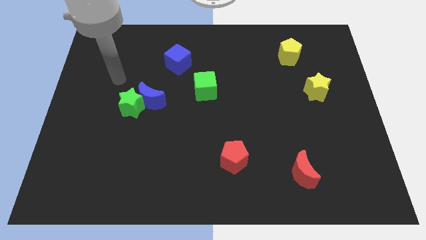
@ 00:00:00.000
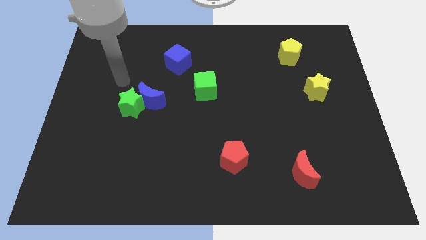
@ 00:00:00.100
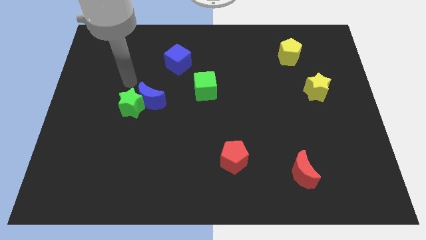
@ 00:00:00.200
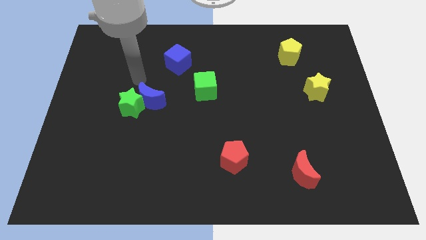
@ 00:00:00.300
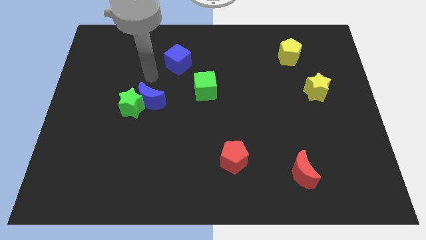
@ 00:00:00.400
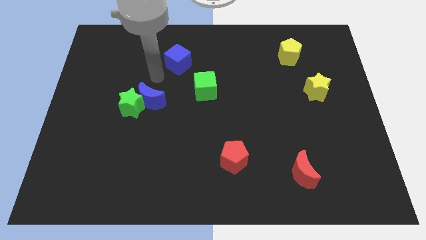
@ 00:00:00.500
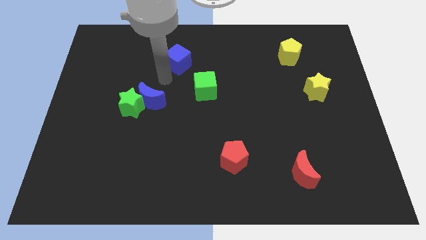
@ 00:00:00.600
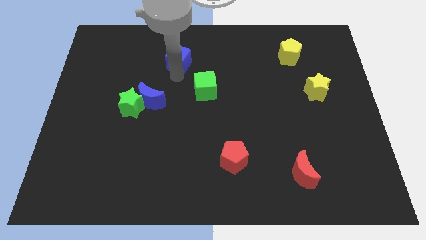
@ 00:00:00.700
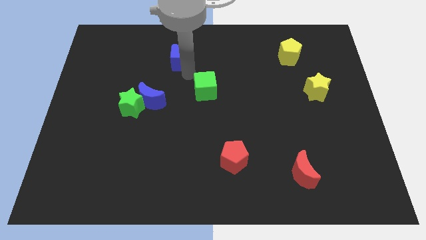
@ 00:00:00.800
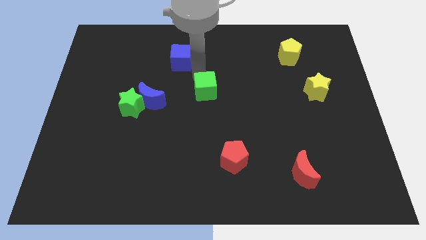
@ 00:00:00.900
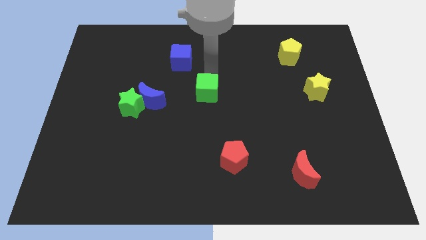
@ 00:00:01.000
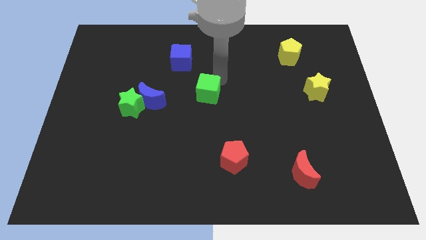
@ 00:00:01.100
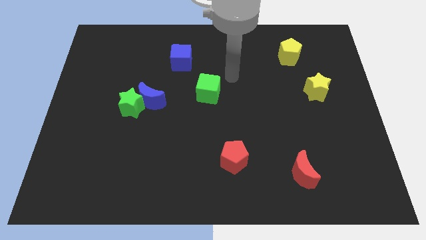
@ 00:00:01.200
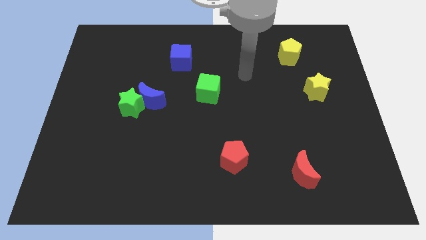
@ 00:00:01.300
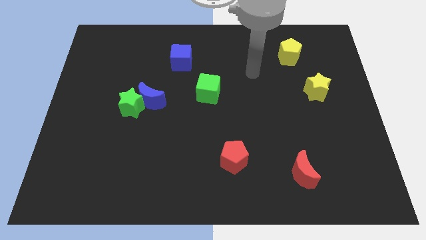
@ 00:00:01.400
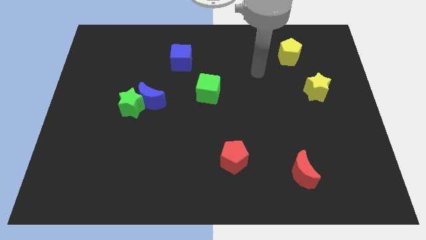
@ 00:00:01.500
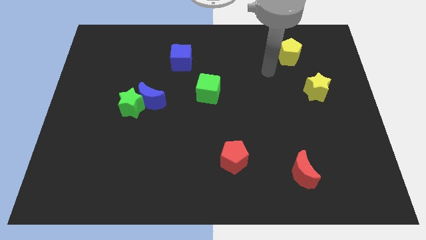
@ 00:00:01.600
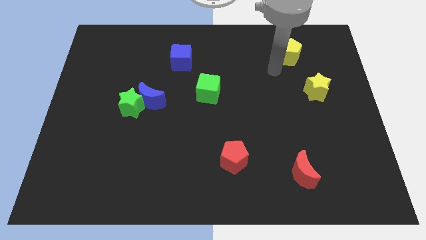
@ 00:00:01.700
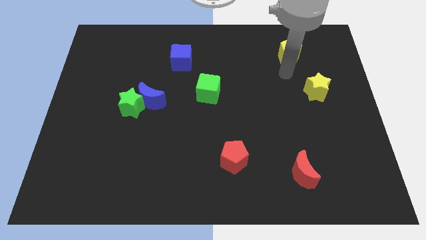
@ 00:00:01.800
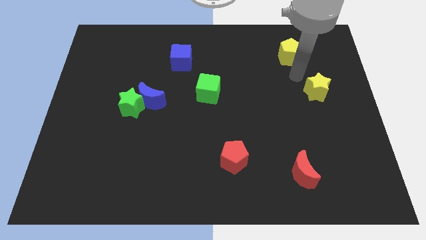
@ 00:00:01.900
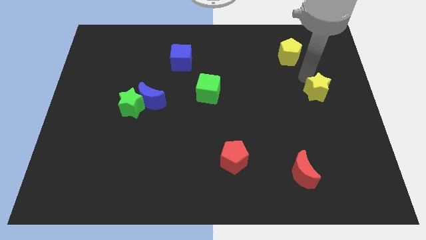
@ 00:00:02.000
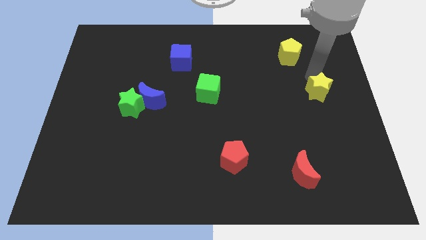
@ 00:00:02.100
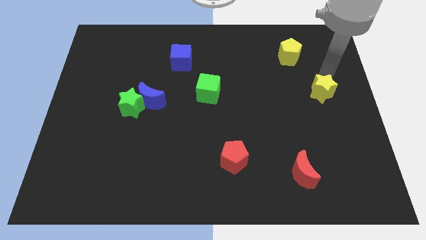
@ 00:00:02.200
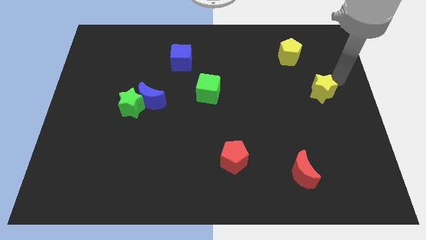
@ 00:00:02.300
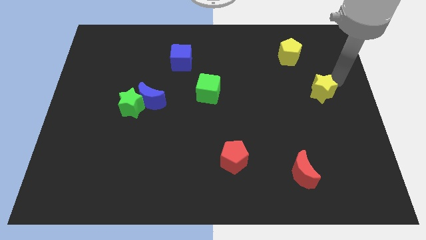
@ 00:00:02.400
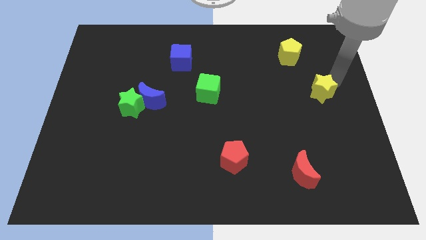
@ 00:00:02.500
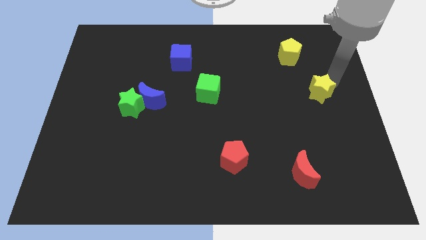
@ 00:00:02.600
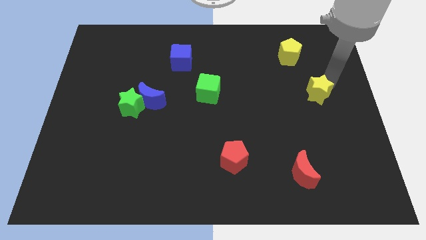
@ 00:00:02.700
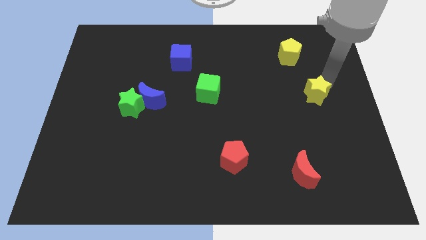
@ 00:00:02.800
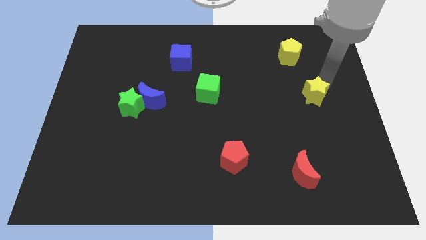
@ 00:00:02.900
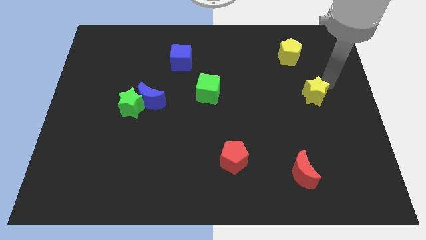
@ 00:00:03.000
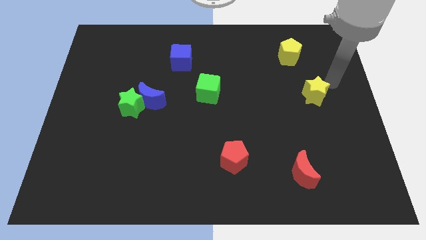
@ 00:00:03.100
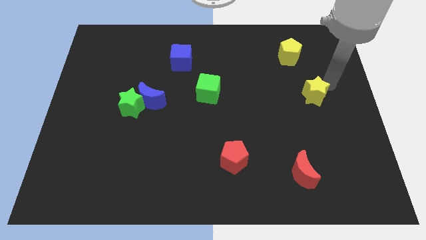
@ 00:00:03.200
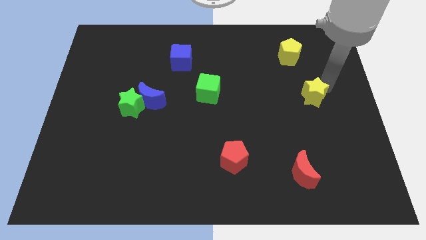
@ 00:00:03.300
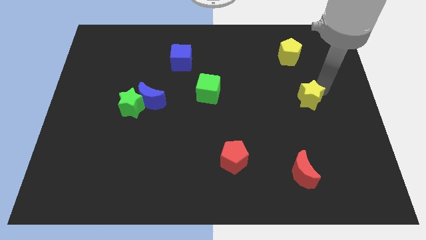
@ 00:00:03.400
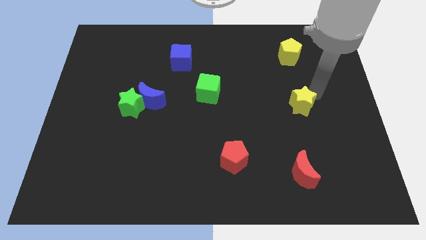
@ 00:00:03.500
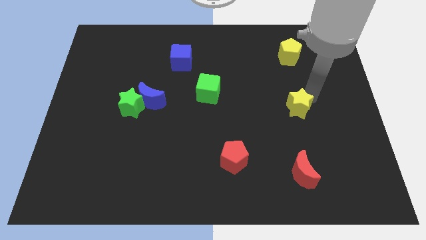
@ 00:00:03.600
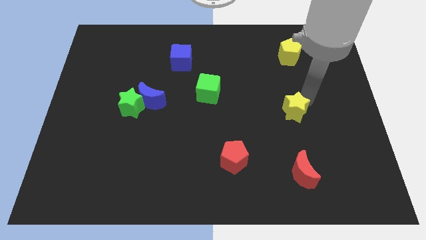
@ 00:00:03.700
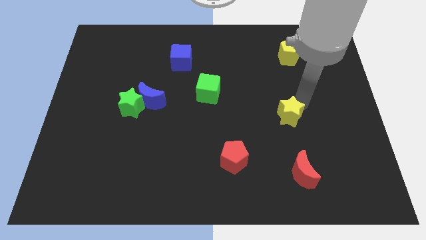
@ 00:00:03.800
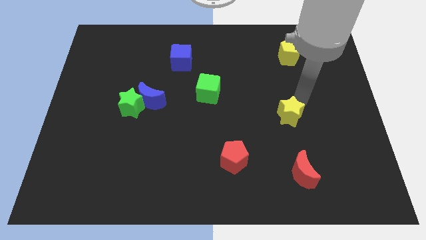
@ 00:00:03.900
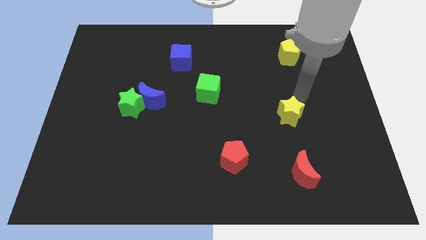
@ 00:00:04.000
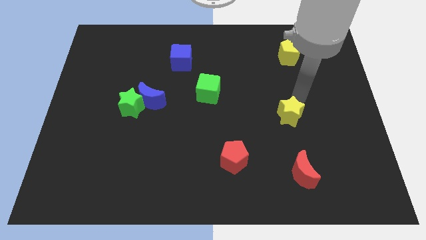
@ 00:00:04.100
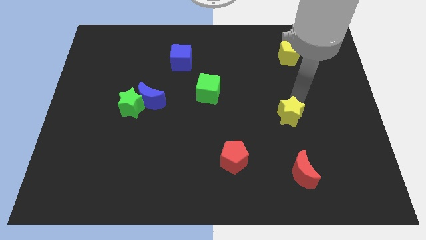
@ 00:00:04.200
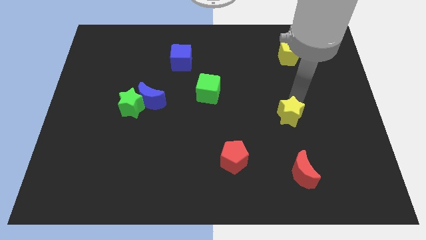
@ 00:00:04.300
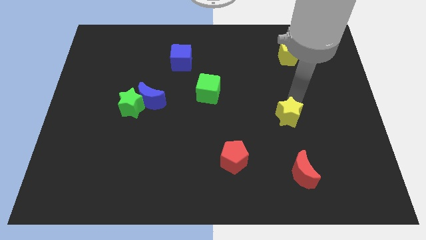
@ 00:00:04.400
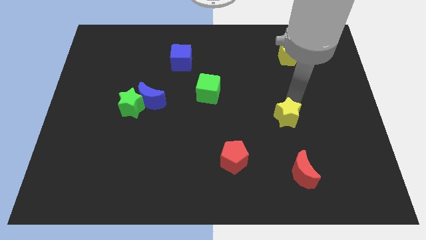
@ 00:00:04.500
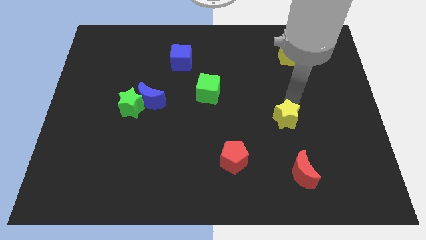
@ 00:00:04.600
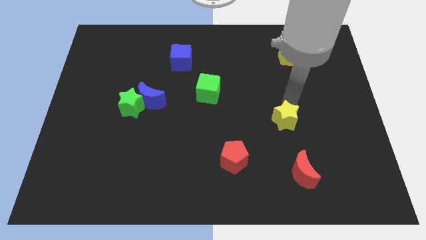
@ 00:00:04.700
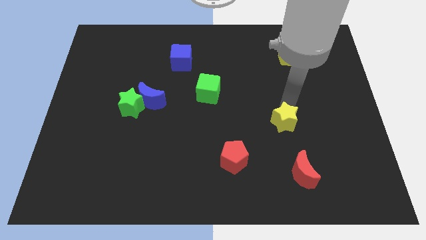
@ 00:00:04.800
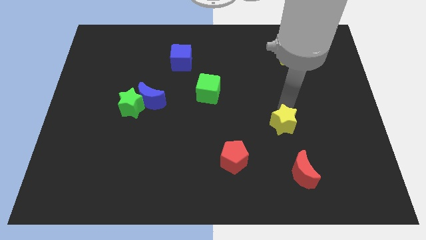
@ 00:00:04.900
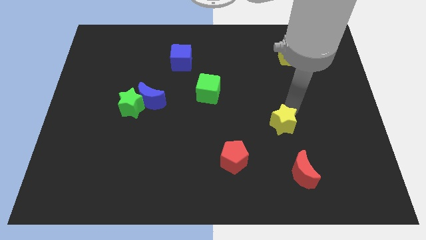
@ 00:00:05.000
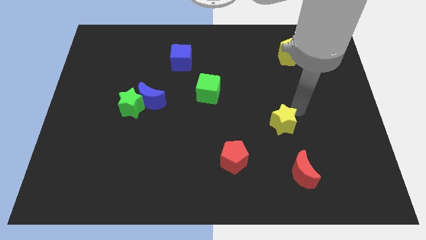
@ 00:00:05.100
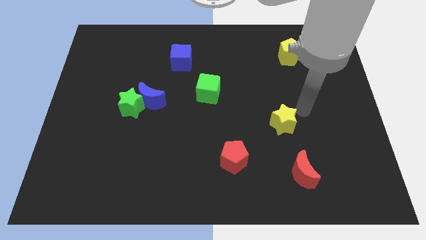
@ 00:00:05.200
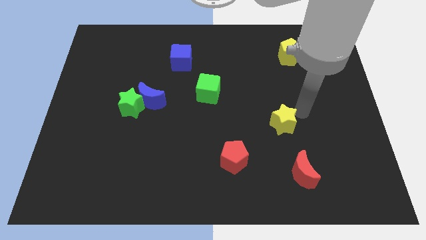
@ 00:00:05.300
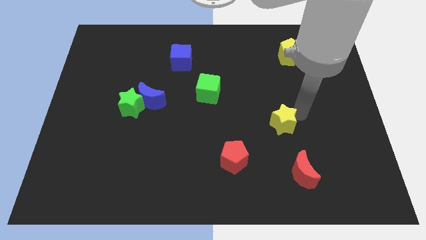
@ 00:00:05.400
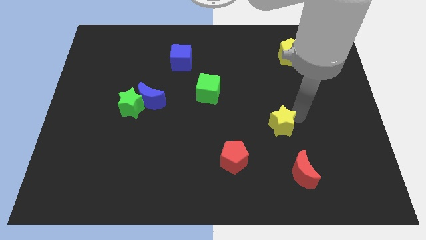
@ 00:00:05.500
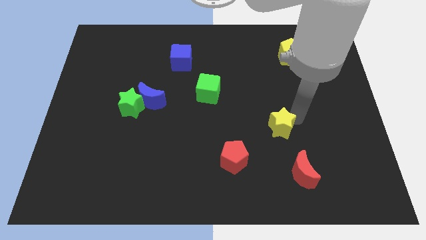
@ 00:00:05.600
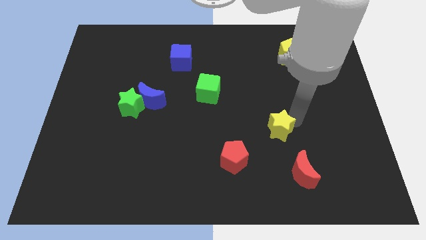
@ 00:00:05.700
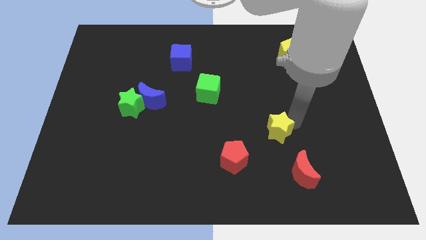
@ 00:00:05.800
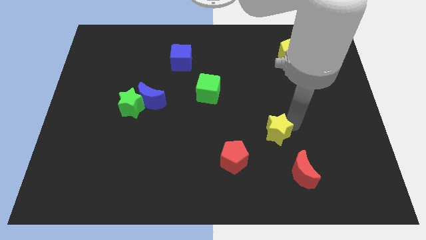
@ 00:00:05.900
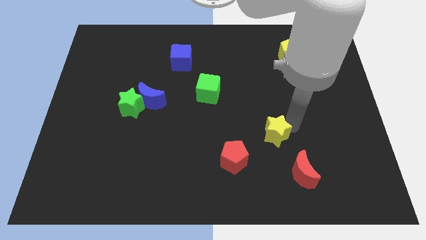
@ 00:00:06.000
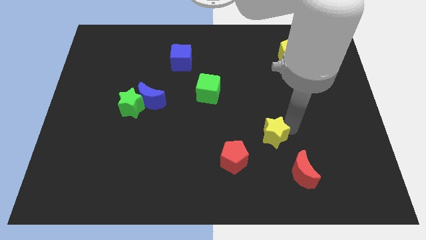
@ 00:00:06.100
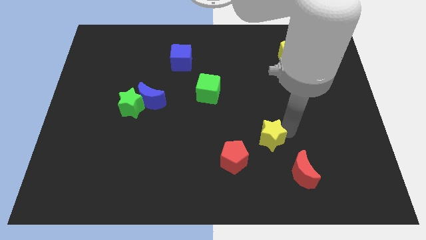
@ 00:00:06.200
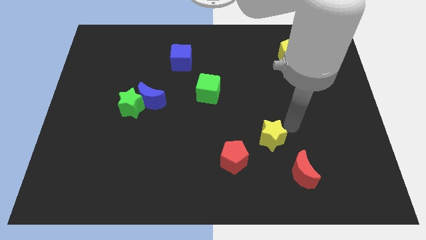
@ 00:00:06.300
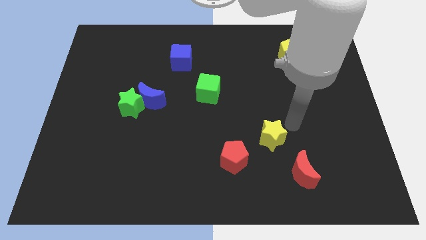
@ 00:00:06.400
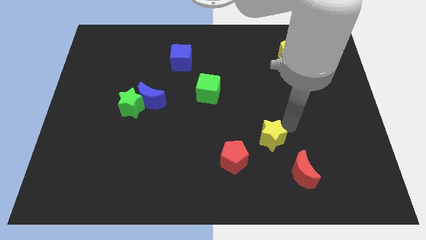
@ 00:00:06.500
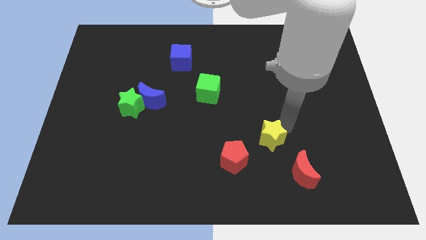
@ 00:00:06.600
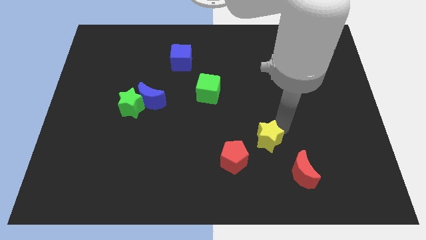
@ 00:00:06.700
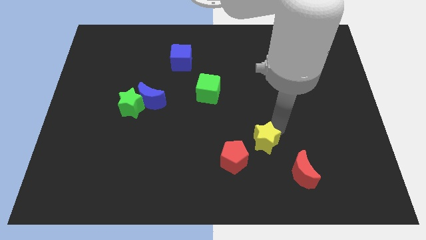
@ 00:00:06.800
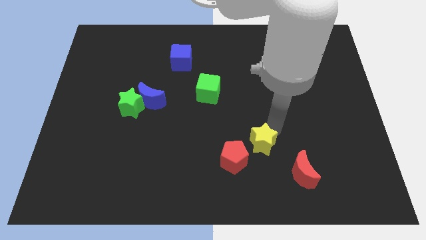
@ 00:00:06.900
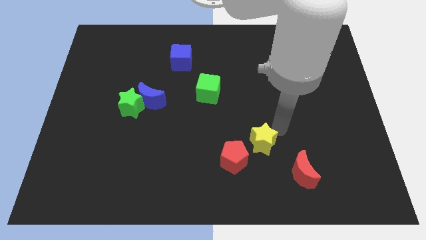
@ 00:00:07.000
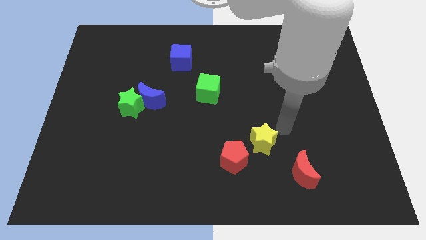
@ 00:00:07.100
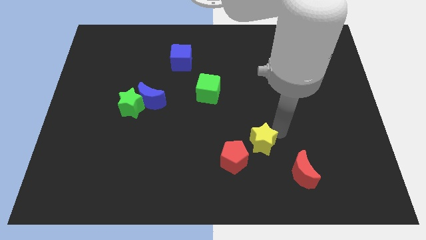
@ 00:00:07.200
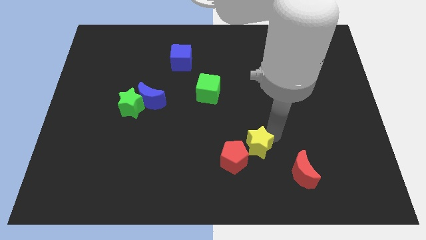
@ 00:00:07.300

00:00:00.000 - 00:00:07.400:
push the yellow star towards the red pentagon

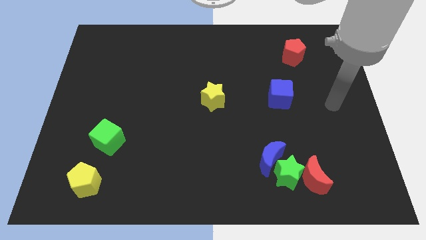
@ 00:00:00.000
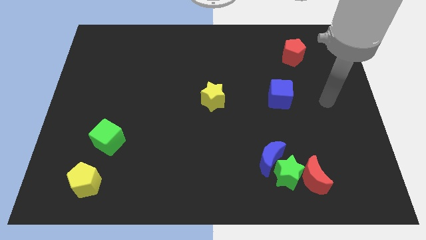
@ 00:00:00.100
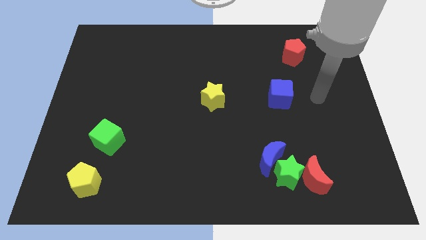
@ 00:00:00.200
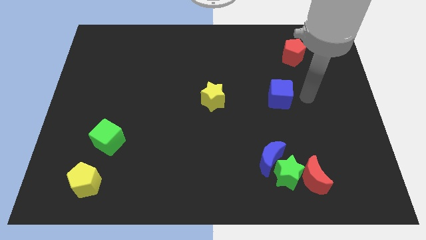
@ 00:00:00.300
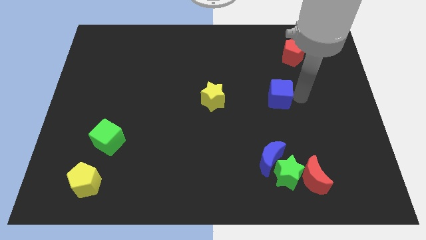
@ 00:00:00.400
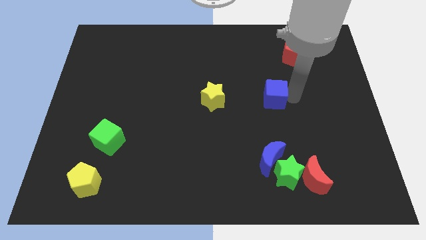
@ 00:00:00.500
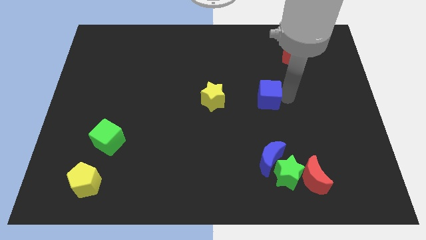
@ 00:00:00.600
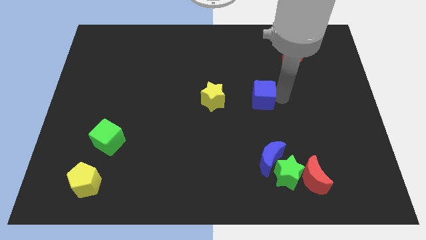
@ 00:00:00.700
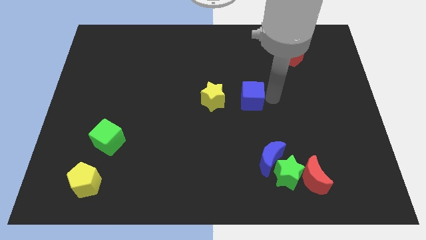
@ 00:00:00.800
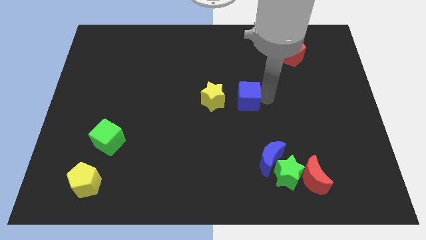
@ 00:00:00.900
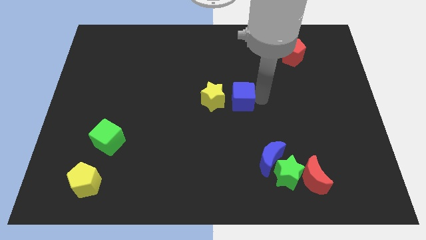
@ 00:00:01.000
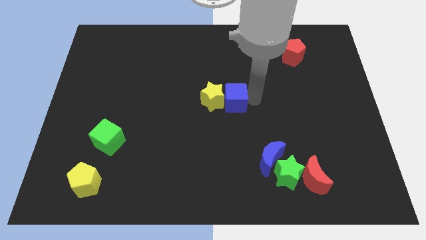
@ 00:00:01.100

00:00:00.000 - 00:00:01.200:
put the blue cube to the yellow star
